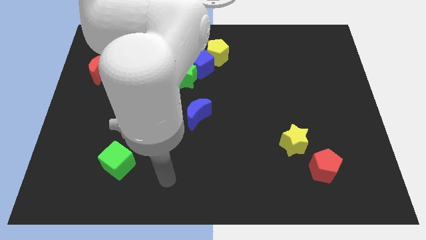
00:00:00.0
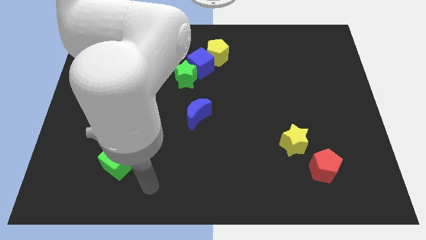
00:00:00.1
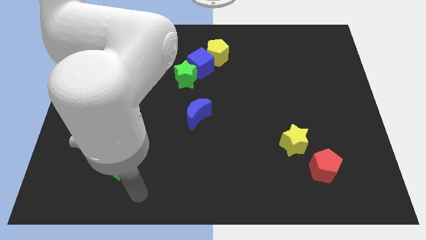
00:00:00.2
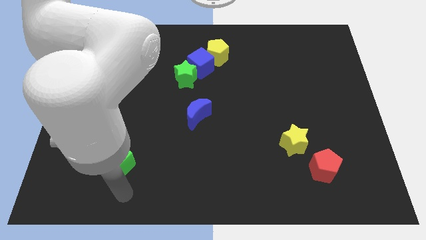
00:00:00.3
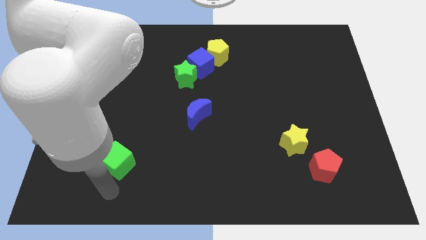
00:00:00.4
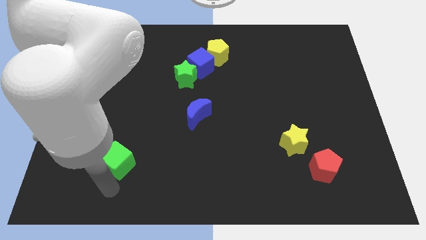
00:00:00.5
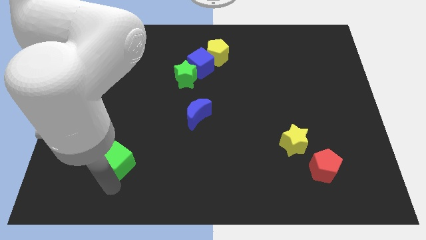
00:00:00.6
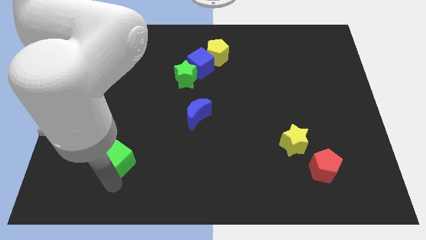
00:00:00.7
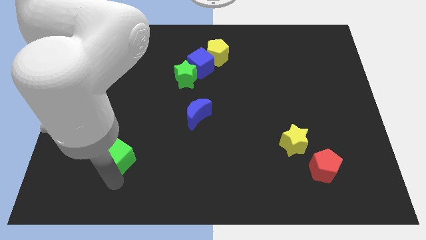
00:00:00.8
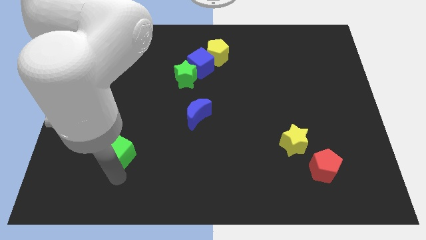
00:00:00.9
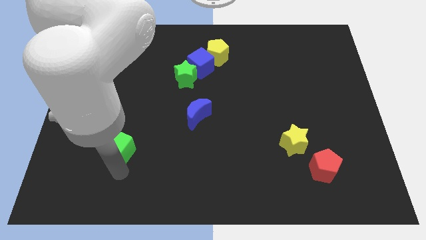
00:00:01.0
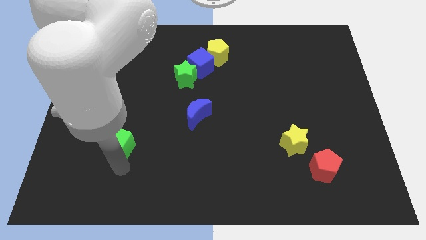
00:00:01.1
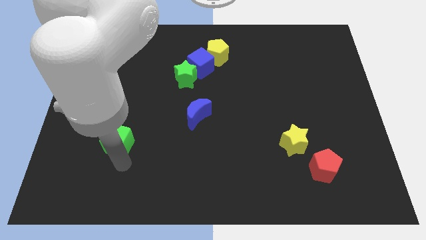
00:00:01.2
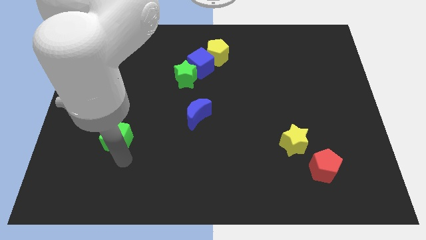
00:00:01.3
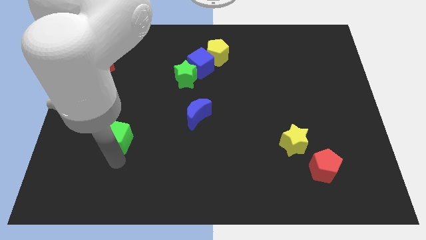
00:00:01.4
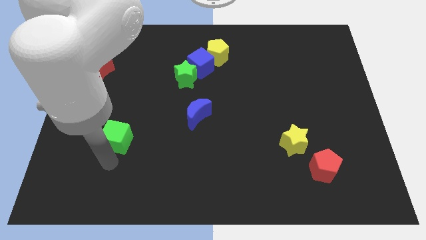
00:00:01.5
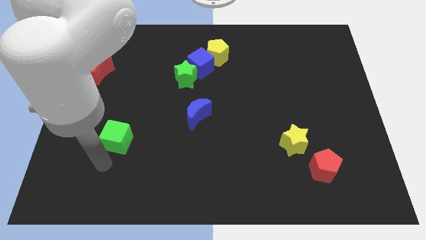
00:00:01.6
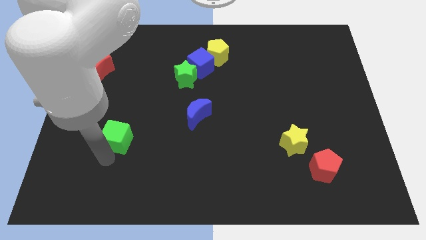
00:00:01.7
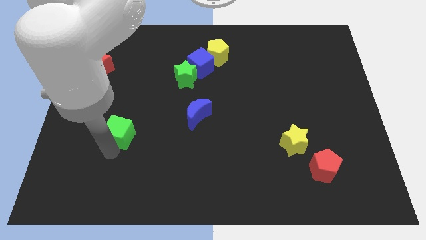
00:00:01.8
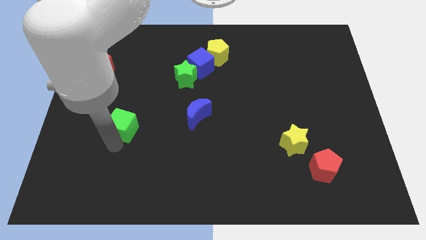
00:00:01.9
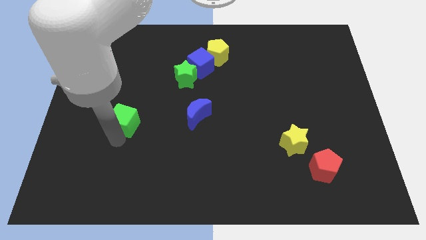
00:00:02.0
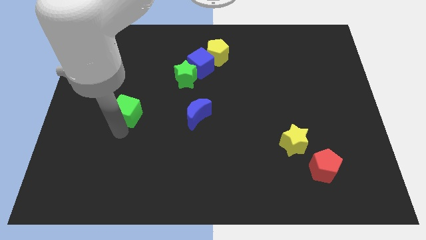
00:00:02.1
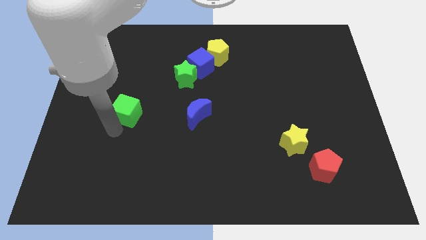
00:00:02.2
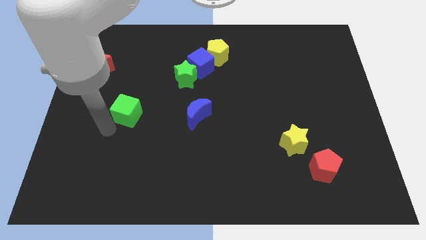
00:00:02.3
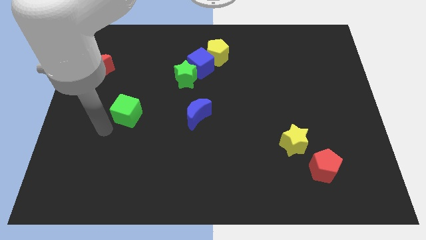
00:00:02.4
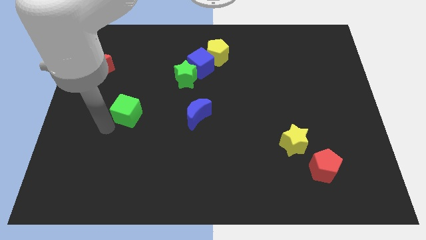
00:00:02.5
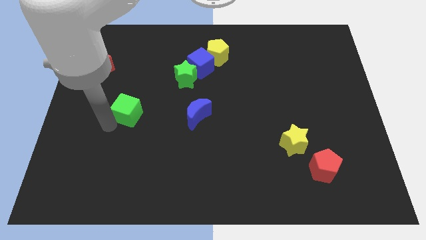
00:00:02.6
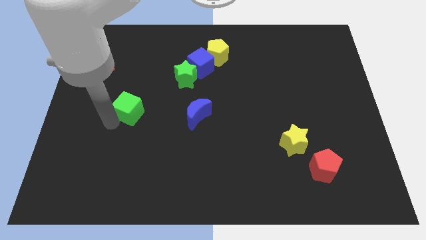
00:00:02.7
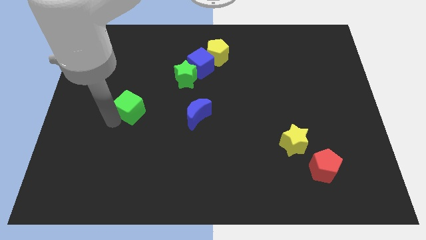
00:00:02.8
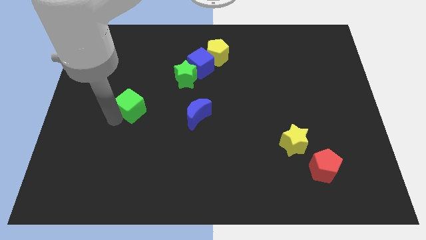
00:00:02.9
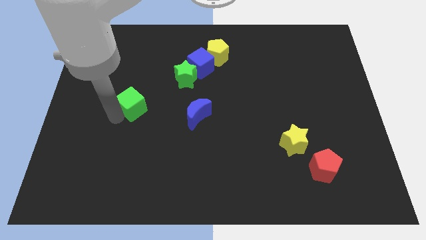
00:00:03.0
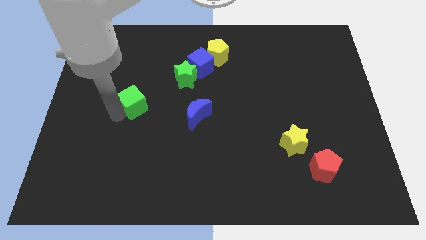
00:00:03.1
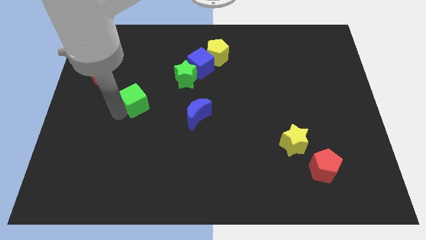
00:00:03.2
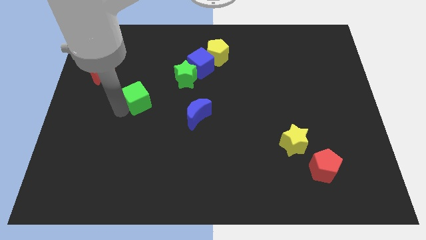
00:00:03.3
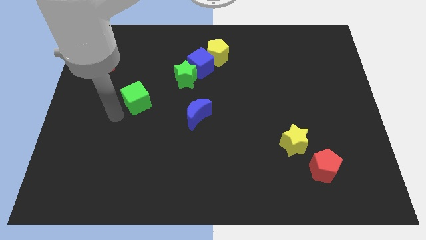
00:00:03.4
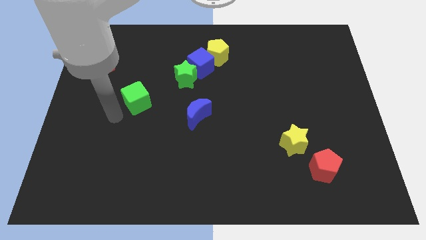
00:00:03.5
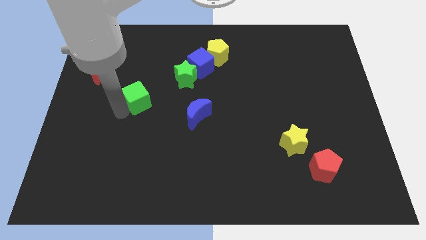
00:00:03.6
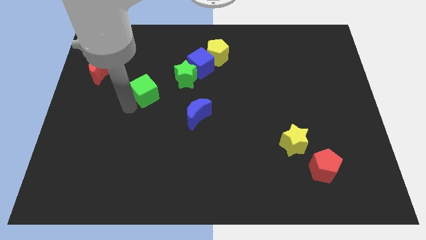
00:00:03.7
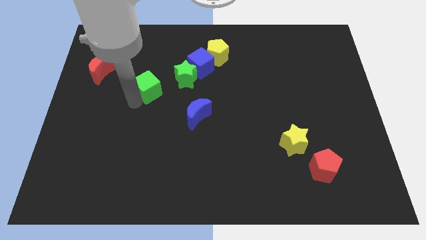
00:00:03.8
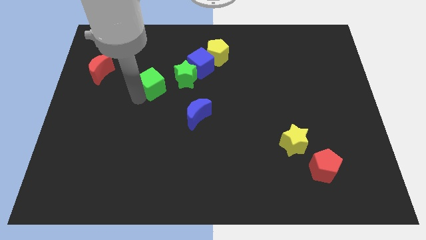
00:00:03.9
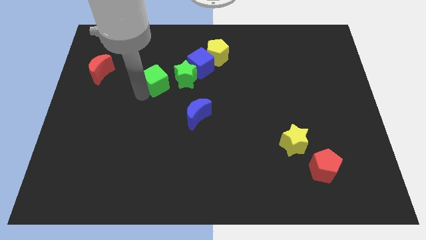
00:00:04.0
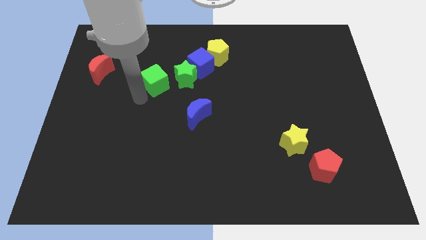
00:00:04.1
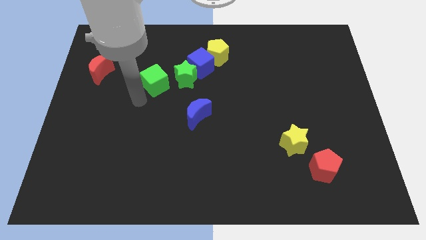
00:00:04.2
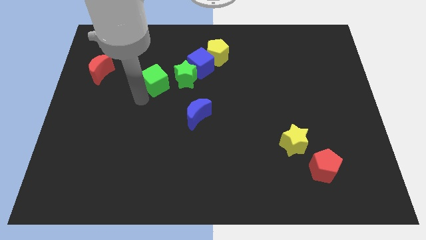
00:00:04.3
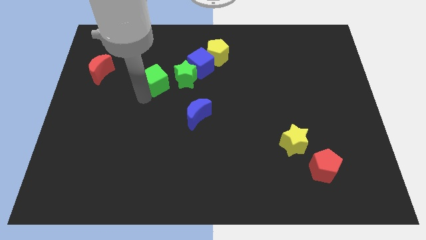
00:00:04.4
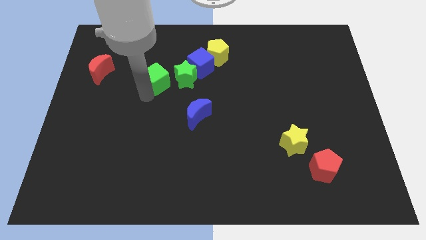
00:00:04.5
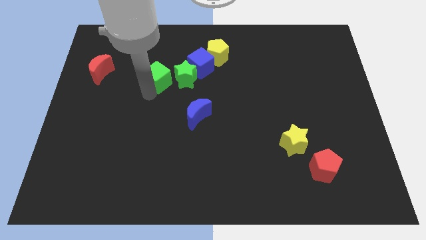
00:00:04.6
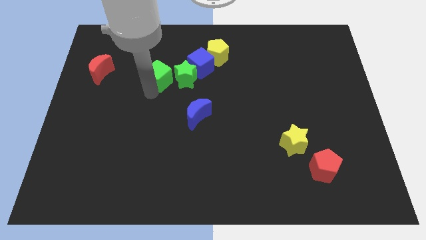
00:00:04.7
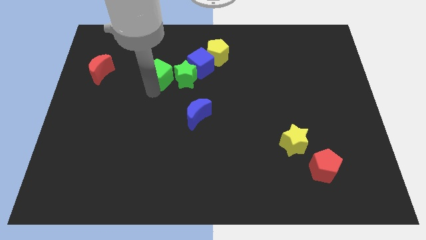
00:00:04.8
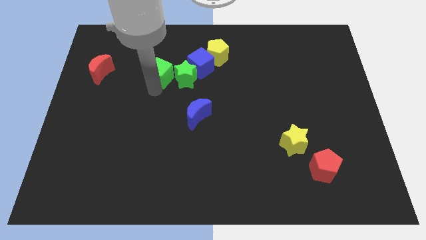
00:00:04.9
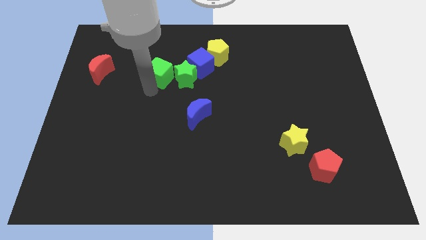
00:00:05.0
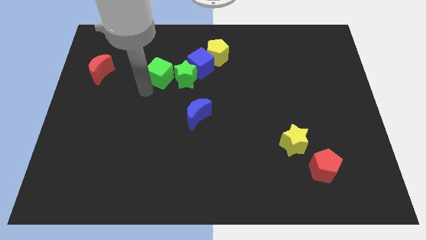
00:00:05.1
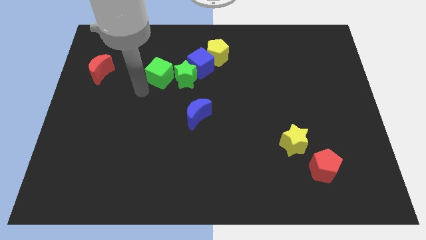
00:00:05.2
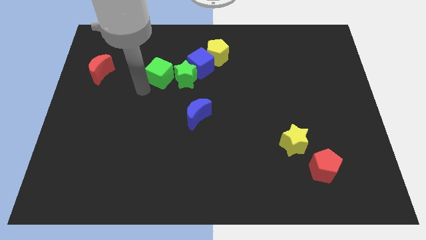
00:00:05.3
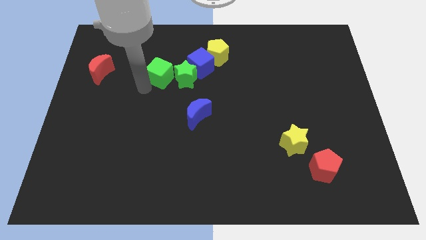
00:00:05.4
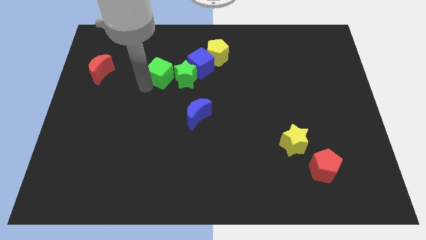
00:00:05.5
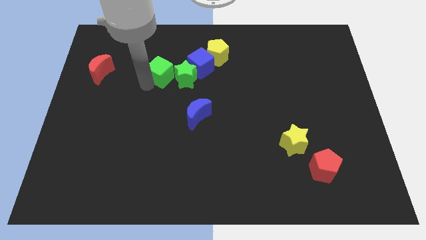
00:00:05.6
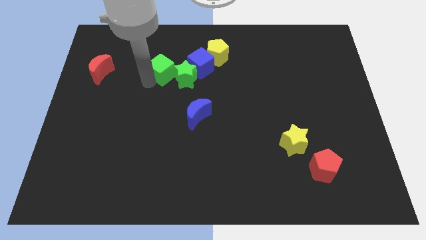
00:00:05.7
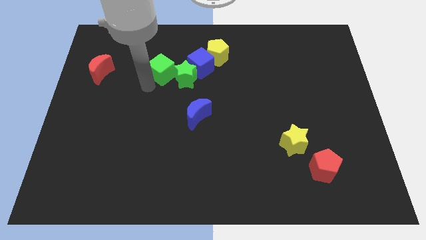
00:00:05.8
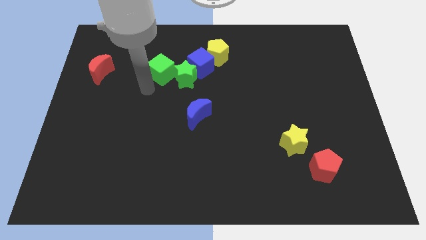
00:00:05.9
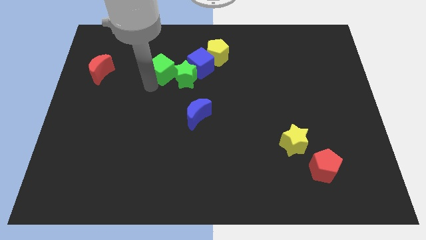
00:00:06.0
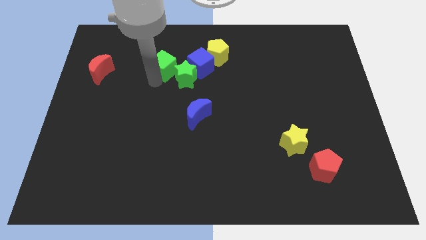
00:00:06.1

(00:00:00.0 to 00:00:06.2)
move the green cube to the left side of the yellow pentagon

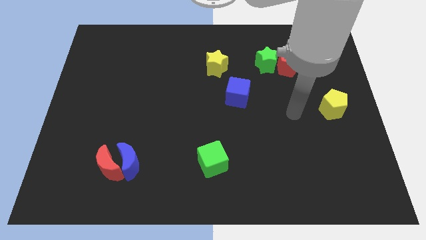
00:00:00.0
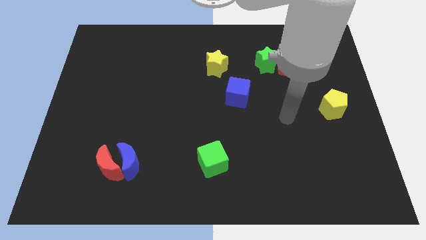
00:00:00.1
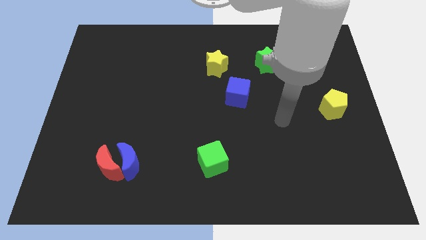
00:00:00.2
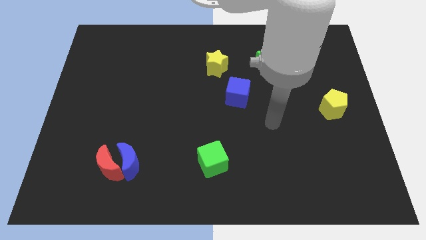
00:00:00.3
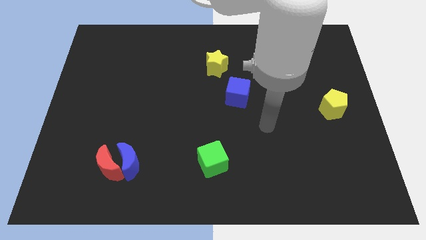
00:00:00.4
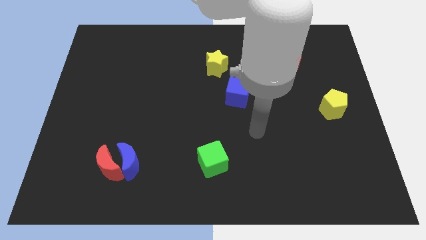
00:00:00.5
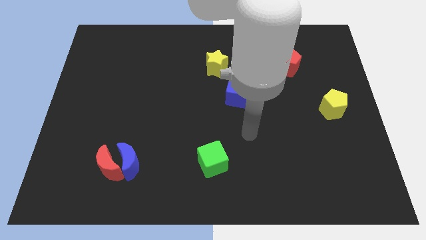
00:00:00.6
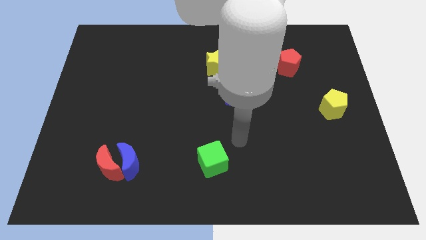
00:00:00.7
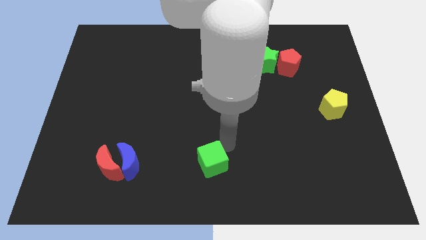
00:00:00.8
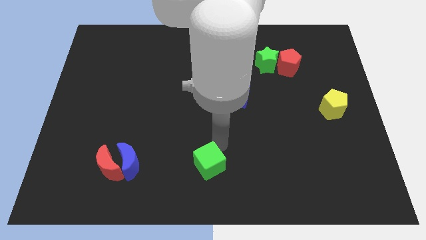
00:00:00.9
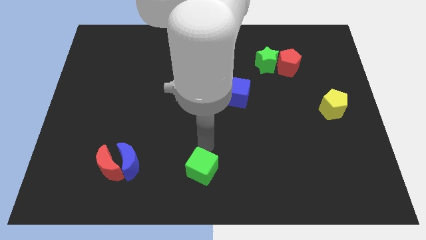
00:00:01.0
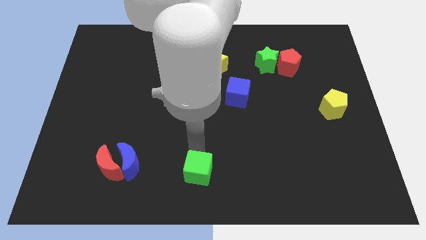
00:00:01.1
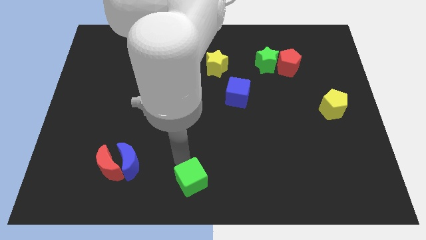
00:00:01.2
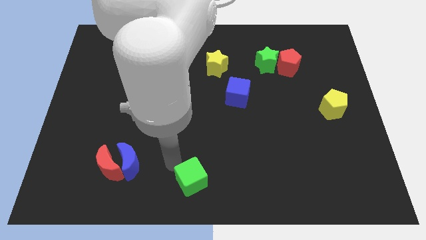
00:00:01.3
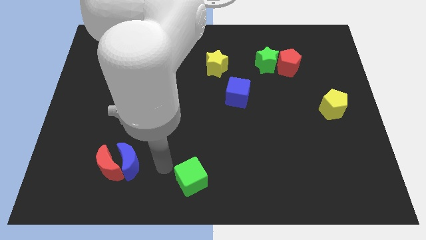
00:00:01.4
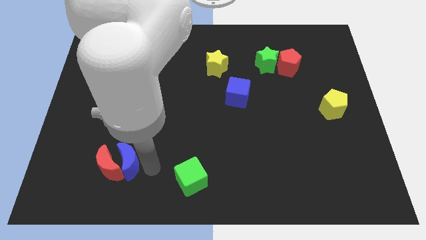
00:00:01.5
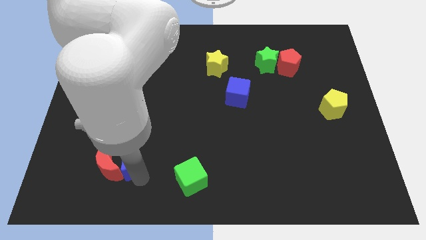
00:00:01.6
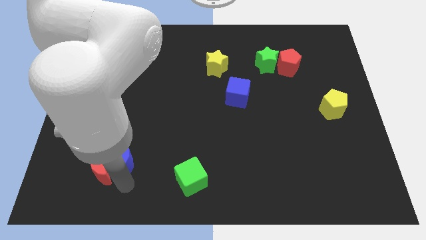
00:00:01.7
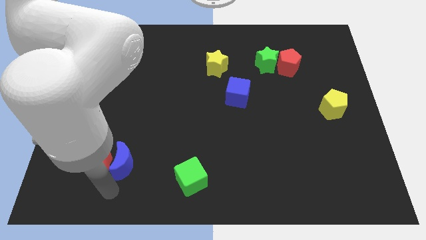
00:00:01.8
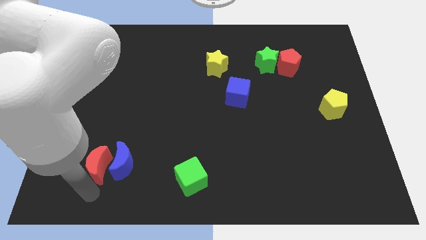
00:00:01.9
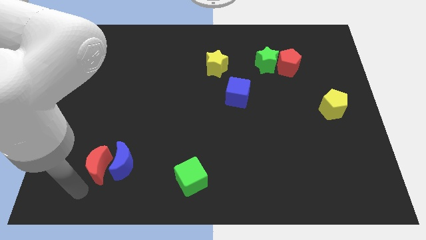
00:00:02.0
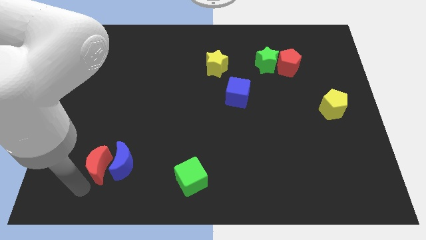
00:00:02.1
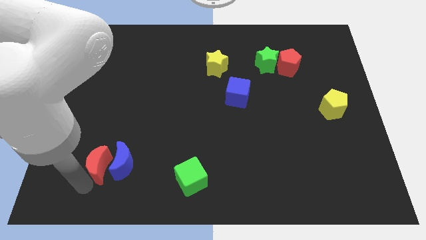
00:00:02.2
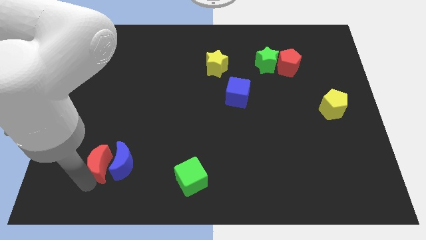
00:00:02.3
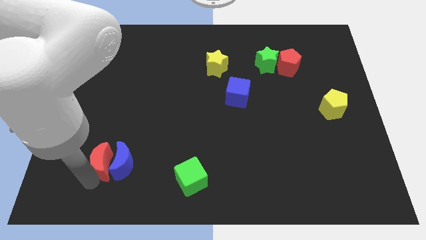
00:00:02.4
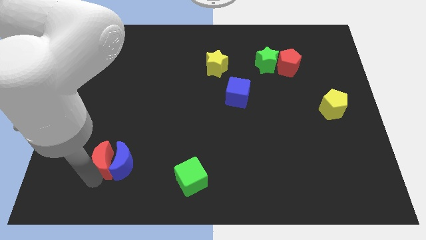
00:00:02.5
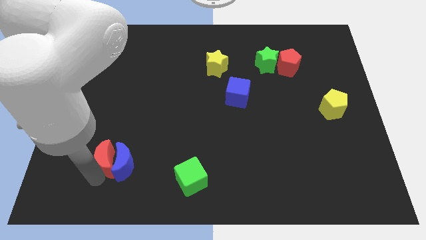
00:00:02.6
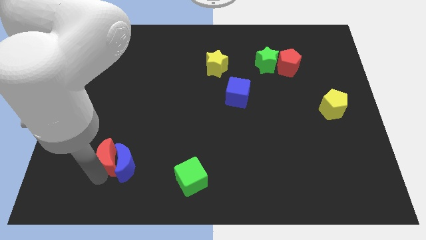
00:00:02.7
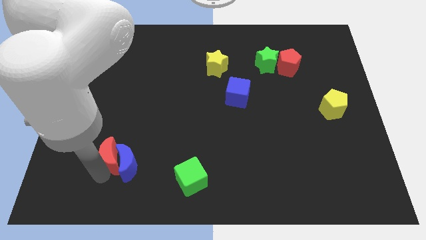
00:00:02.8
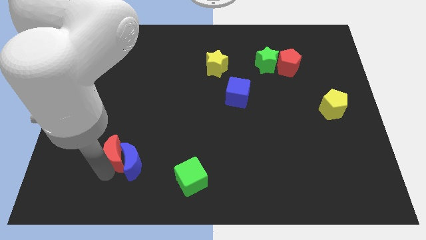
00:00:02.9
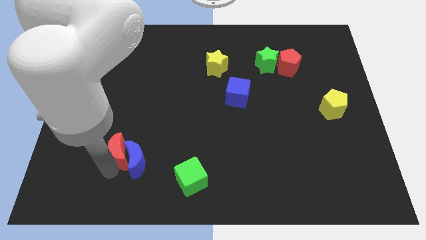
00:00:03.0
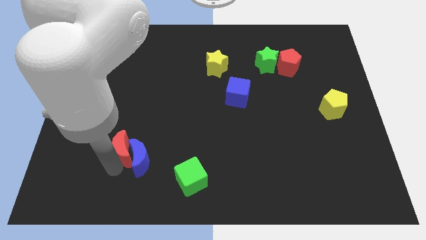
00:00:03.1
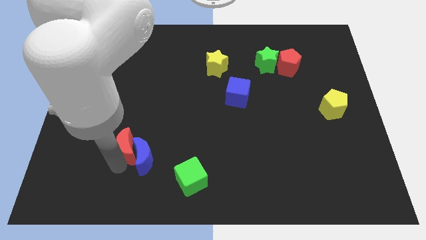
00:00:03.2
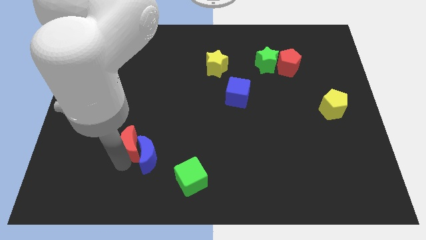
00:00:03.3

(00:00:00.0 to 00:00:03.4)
slide the red moon to the top of the blue moon
